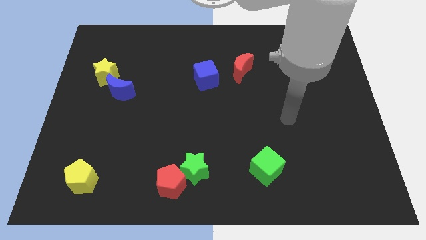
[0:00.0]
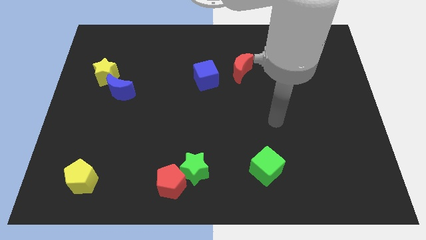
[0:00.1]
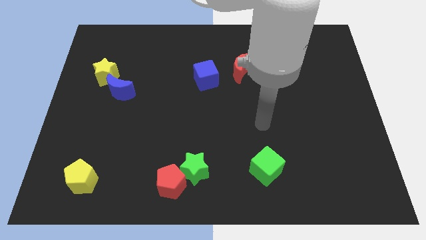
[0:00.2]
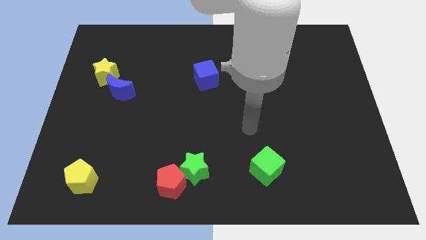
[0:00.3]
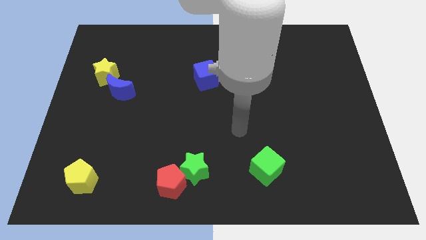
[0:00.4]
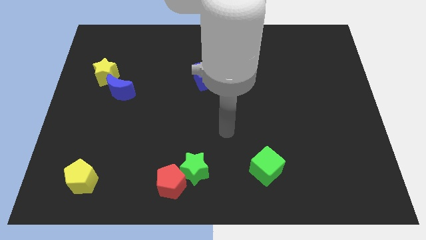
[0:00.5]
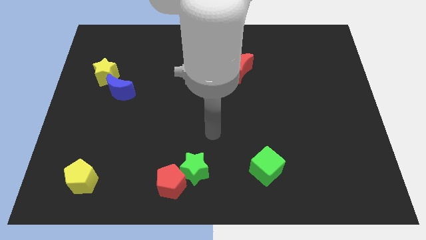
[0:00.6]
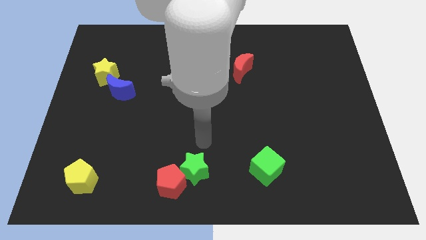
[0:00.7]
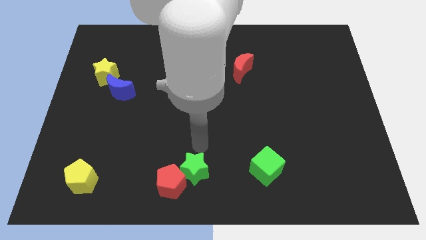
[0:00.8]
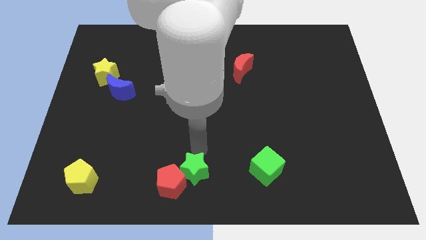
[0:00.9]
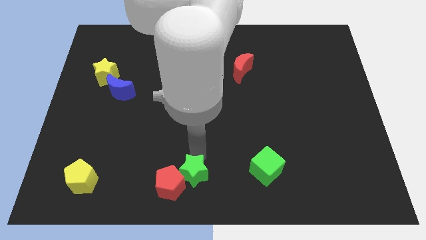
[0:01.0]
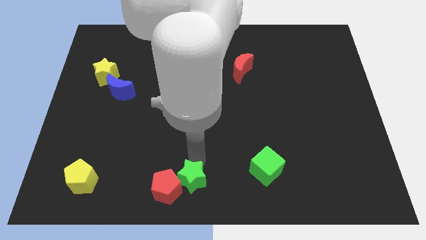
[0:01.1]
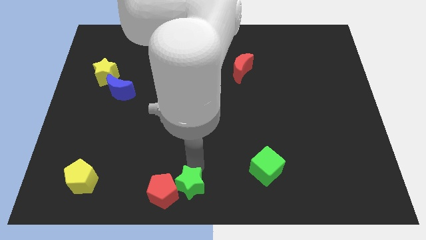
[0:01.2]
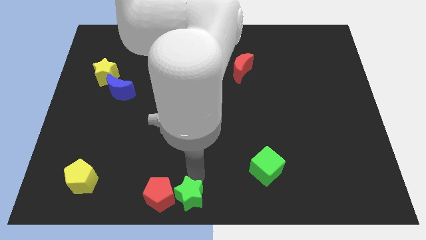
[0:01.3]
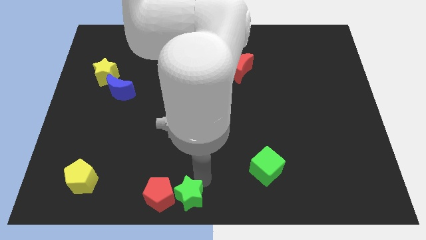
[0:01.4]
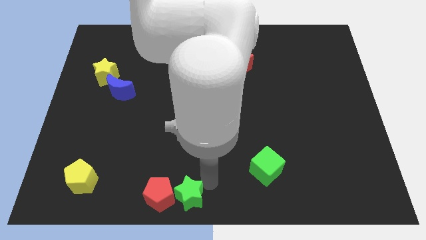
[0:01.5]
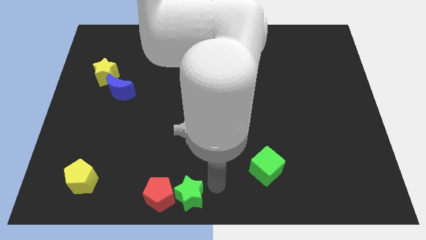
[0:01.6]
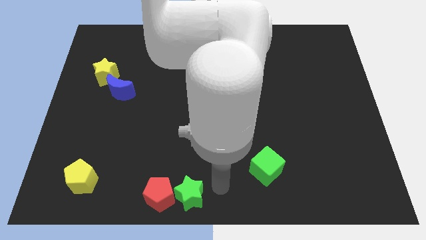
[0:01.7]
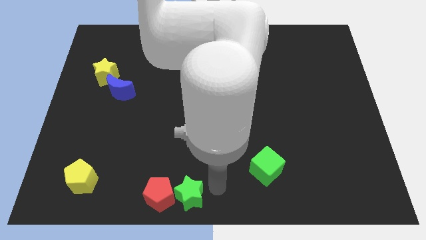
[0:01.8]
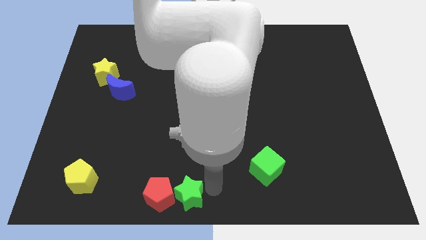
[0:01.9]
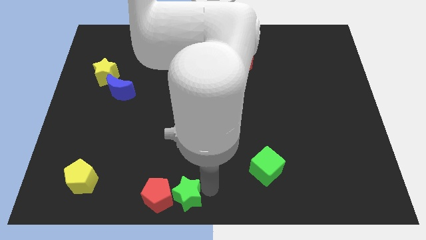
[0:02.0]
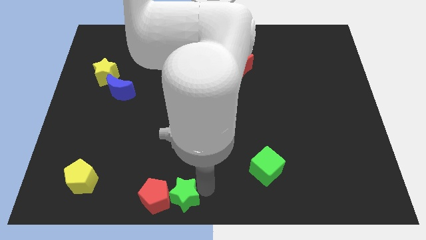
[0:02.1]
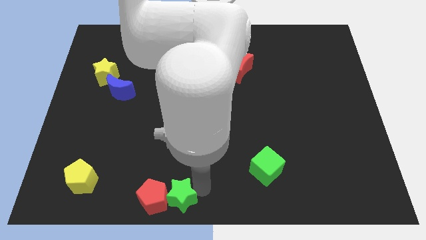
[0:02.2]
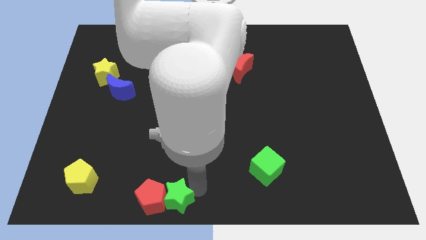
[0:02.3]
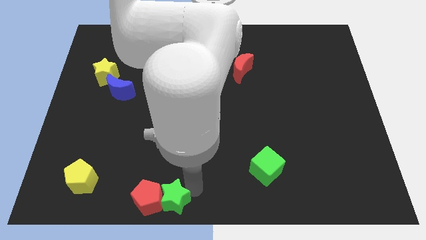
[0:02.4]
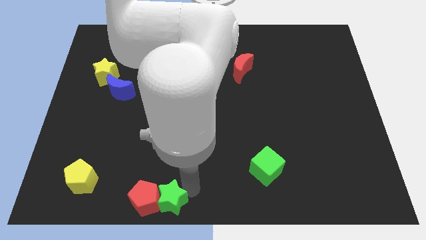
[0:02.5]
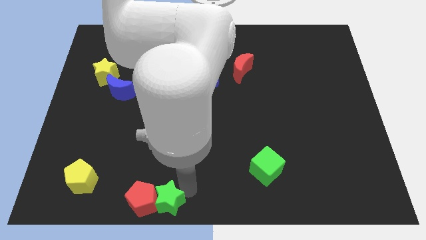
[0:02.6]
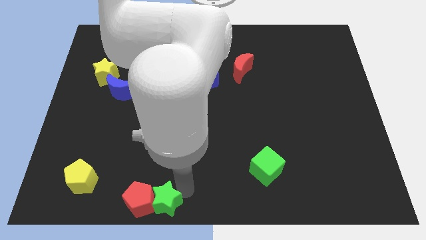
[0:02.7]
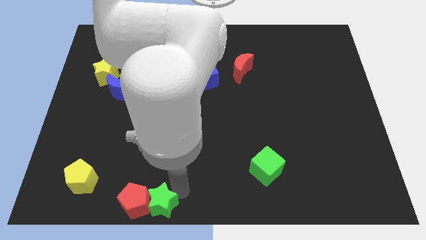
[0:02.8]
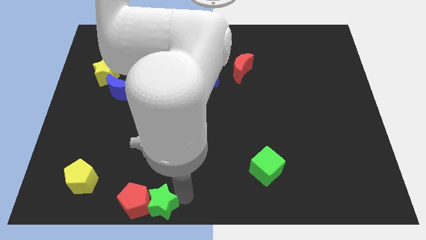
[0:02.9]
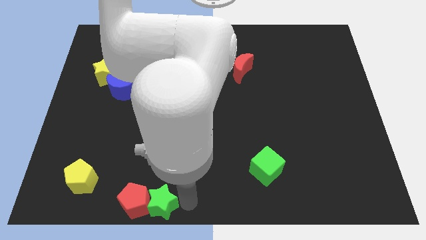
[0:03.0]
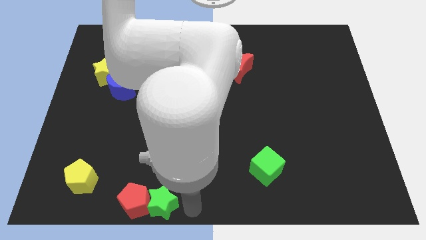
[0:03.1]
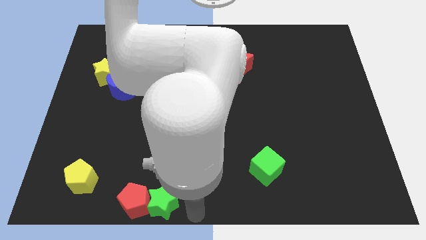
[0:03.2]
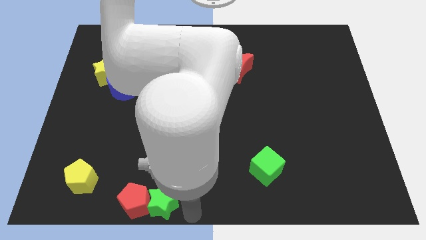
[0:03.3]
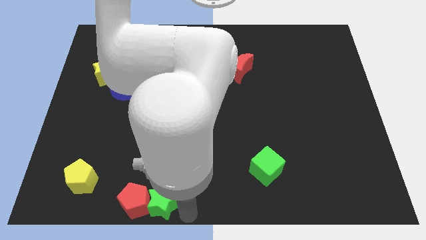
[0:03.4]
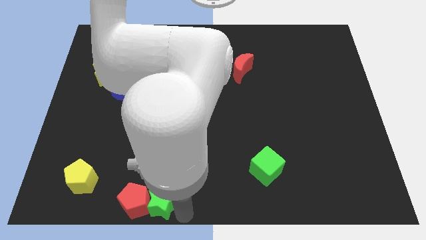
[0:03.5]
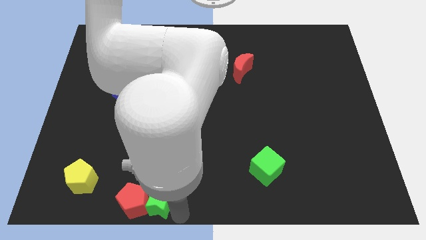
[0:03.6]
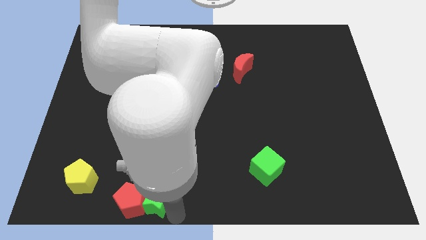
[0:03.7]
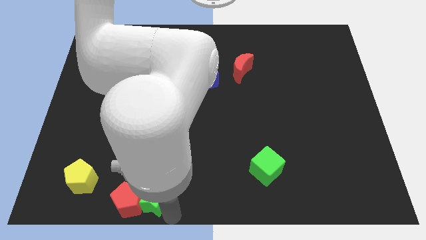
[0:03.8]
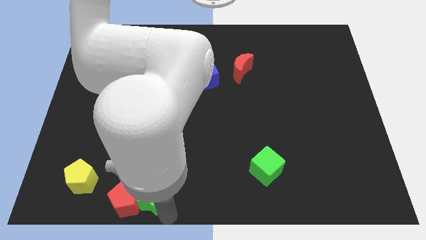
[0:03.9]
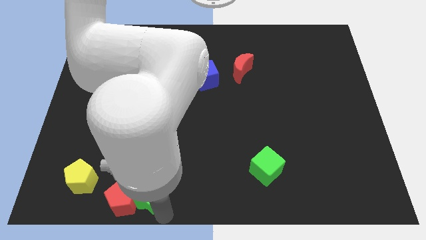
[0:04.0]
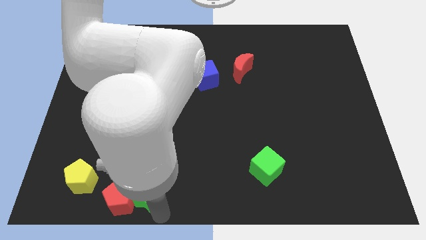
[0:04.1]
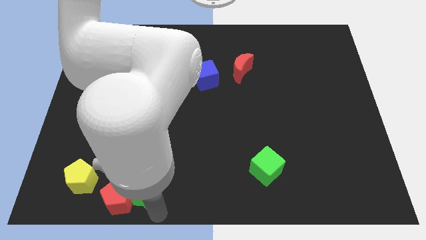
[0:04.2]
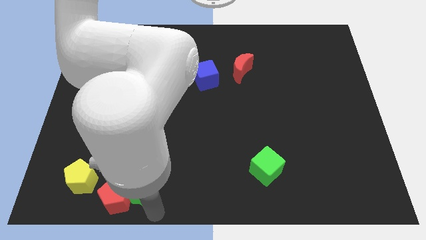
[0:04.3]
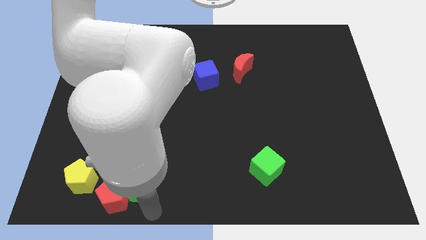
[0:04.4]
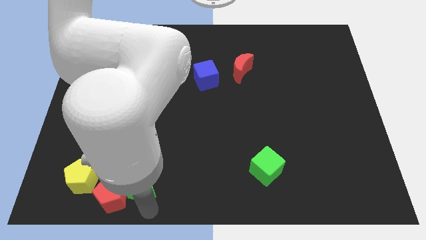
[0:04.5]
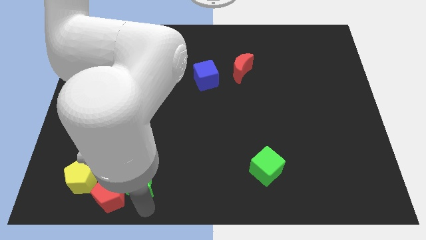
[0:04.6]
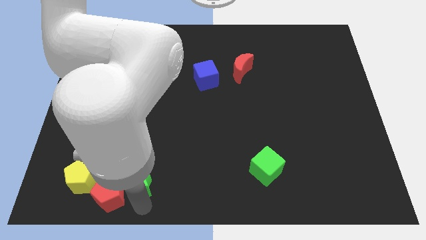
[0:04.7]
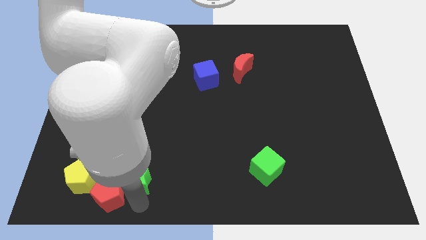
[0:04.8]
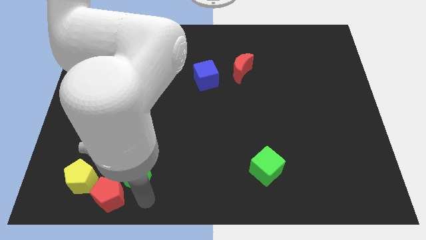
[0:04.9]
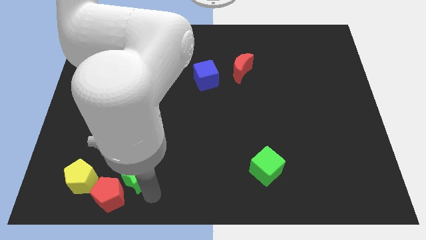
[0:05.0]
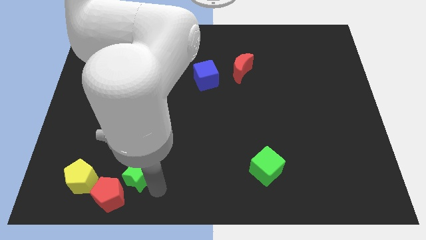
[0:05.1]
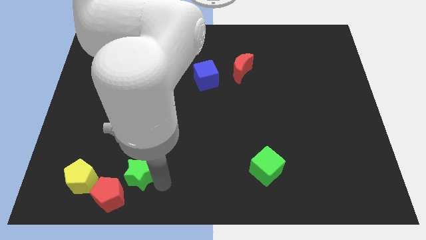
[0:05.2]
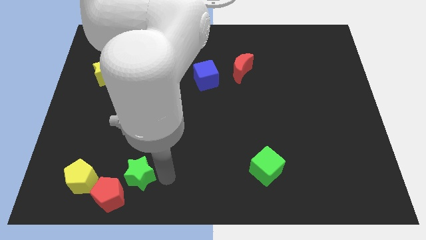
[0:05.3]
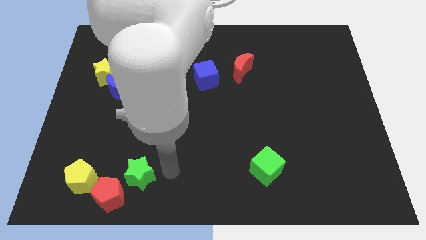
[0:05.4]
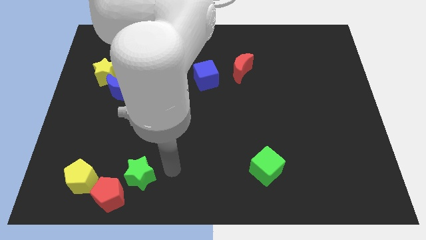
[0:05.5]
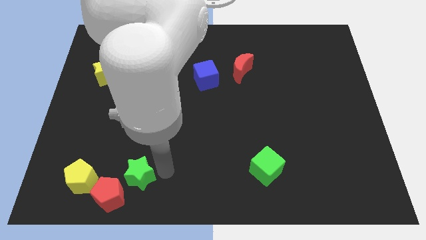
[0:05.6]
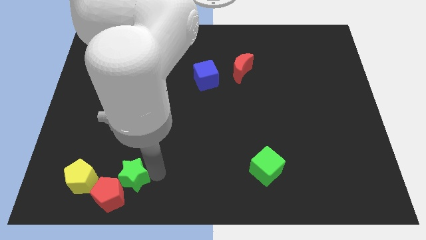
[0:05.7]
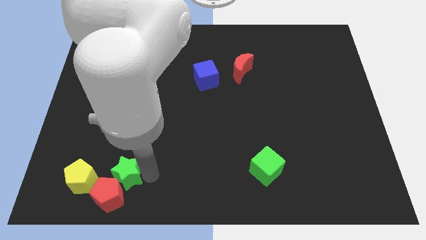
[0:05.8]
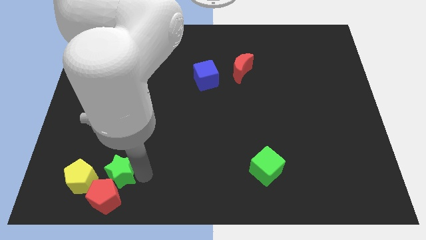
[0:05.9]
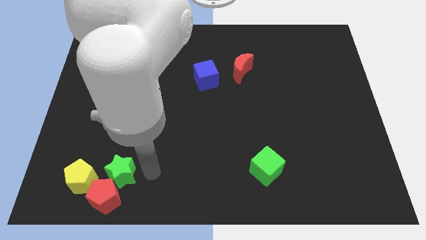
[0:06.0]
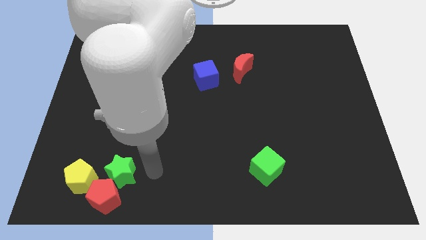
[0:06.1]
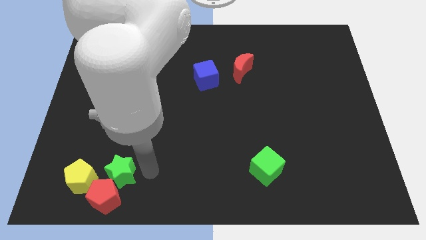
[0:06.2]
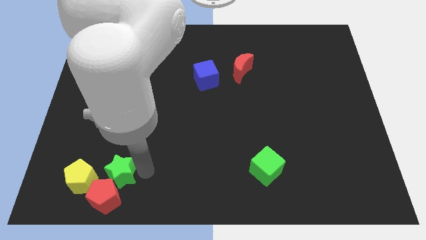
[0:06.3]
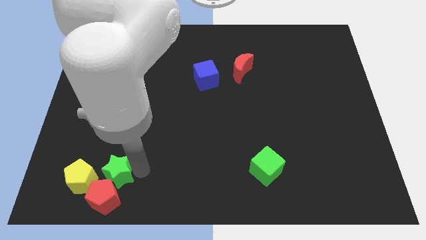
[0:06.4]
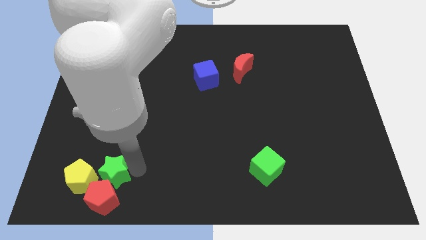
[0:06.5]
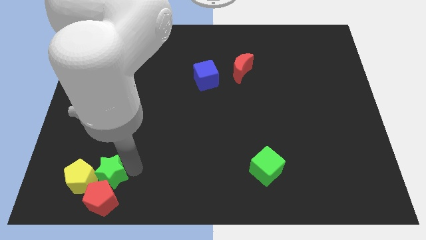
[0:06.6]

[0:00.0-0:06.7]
push the green star to the yellow pentagon

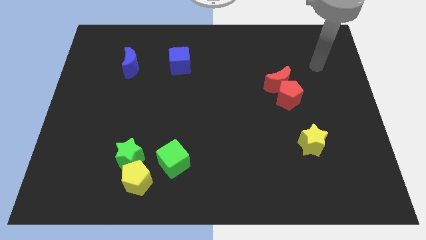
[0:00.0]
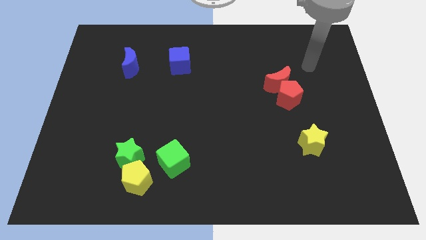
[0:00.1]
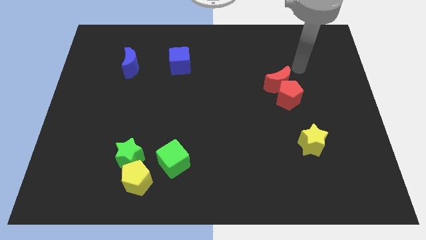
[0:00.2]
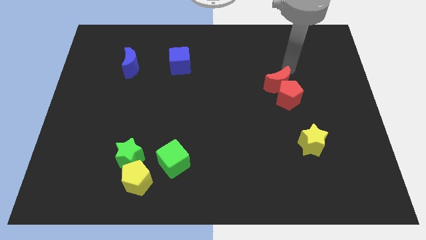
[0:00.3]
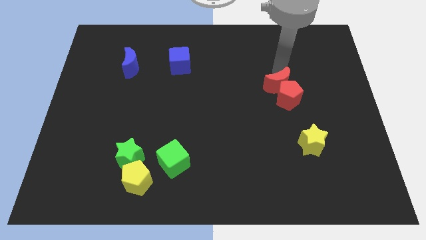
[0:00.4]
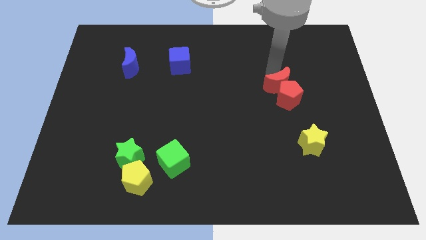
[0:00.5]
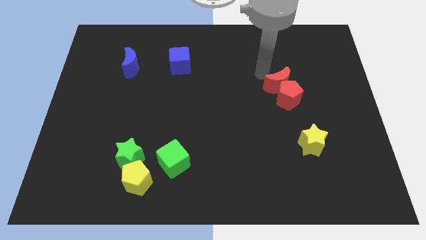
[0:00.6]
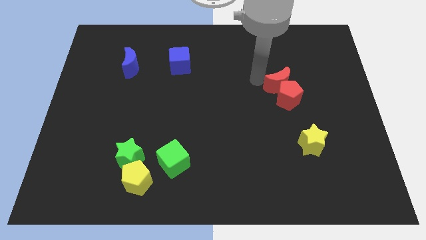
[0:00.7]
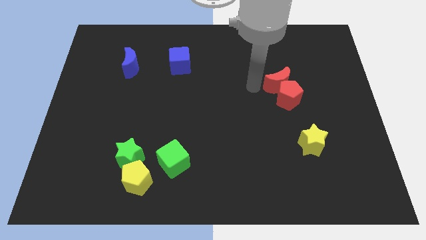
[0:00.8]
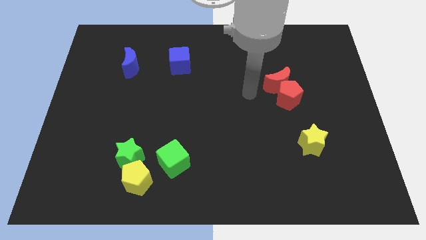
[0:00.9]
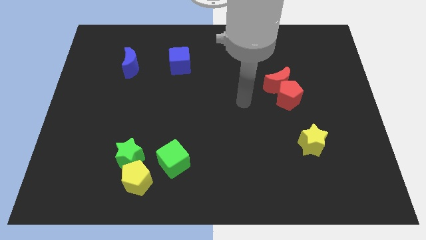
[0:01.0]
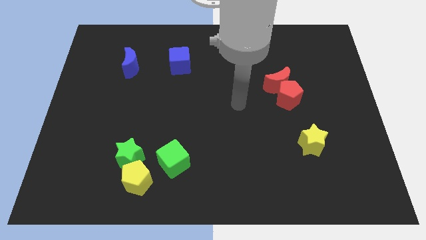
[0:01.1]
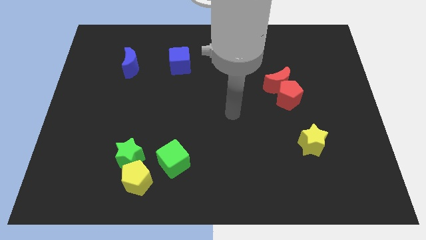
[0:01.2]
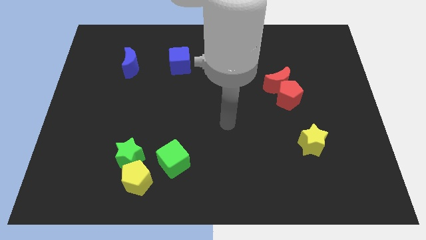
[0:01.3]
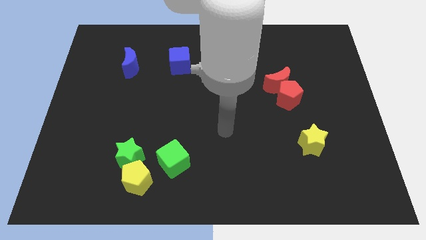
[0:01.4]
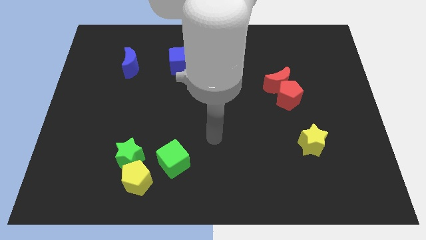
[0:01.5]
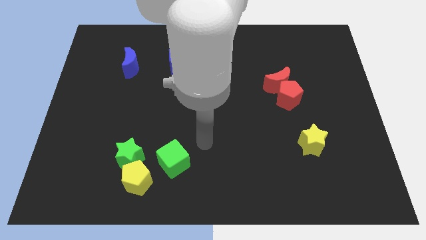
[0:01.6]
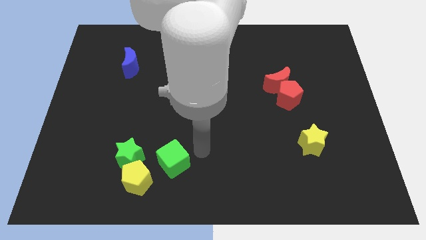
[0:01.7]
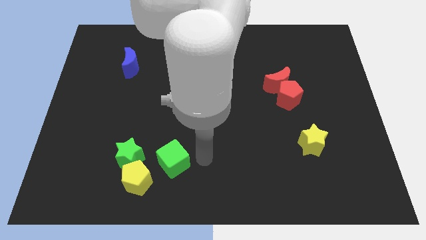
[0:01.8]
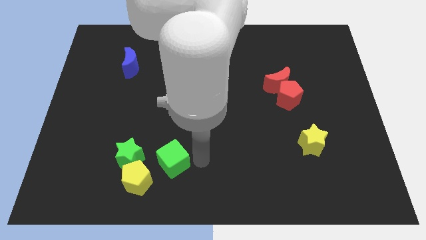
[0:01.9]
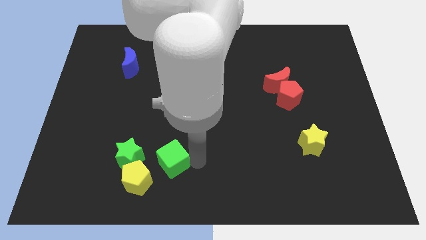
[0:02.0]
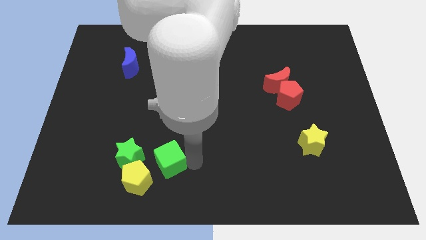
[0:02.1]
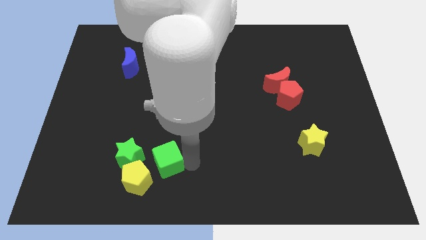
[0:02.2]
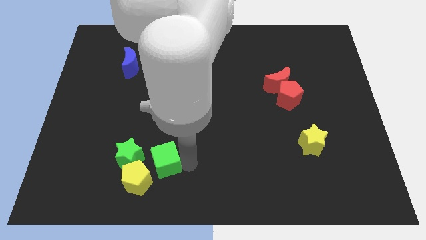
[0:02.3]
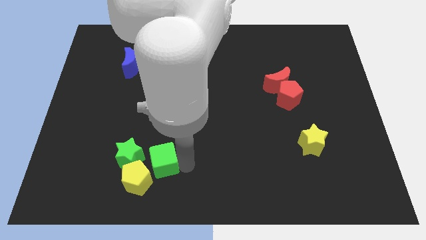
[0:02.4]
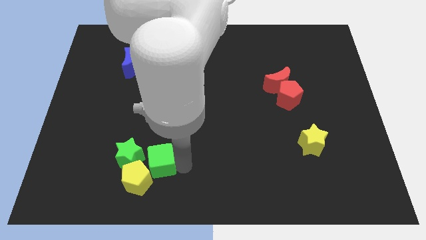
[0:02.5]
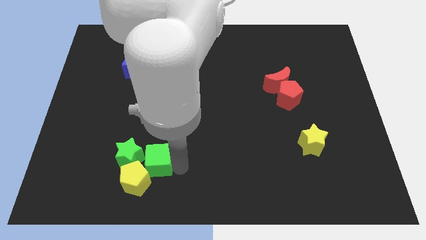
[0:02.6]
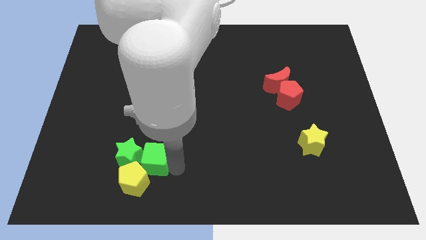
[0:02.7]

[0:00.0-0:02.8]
move the green cube close to the green star
